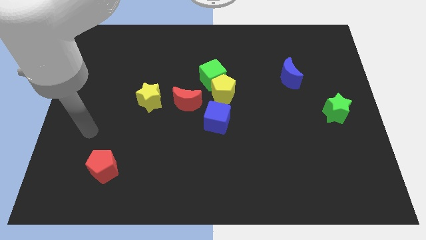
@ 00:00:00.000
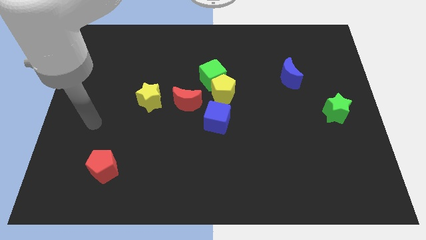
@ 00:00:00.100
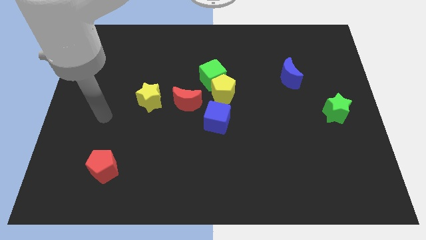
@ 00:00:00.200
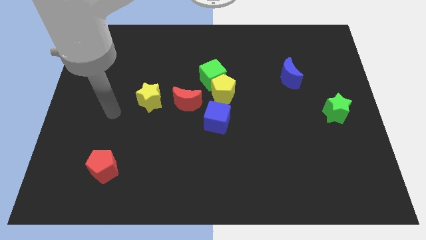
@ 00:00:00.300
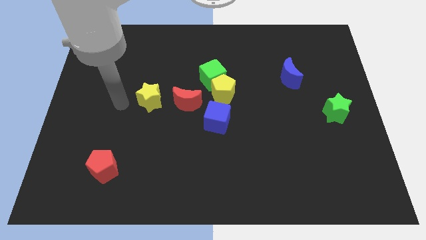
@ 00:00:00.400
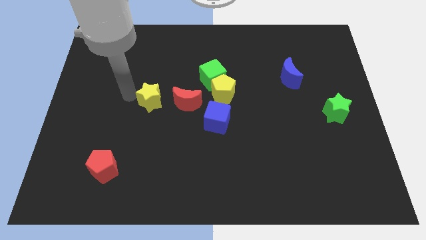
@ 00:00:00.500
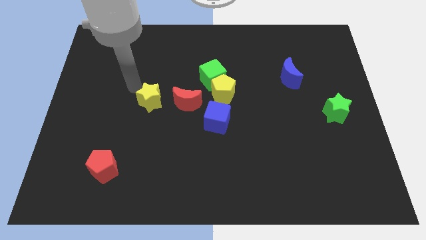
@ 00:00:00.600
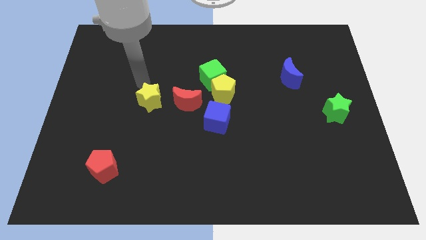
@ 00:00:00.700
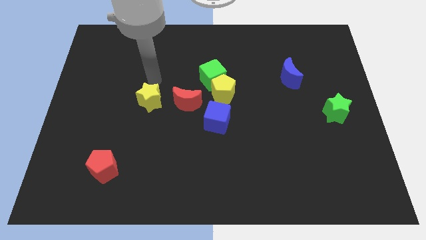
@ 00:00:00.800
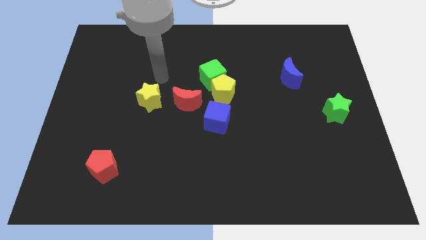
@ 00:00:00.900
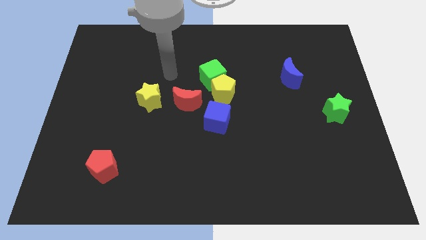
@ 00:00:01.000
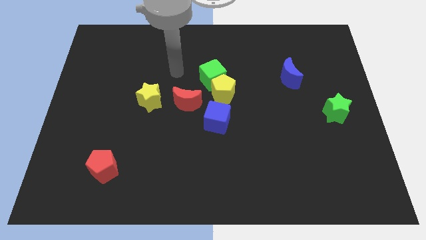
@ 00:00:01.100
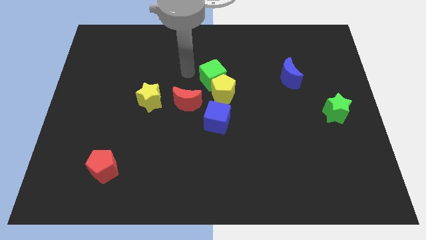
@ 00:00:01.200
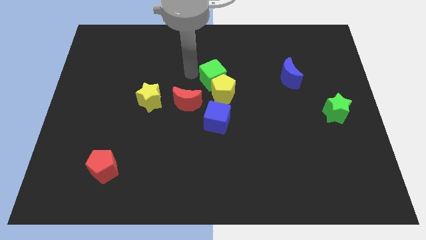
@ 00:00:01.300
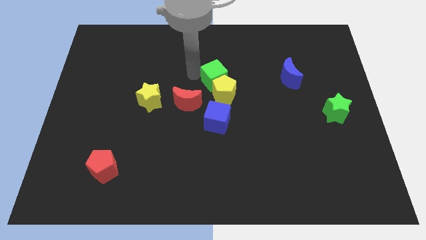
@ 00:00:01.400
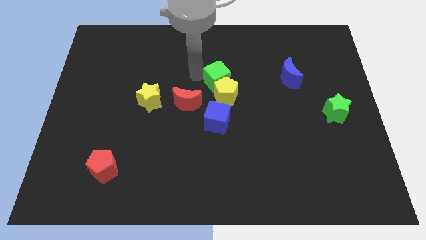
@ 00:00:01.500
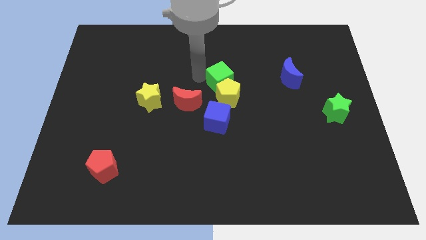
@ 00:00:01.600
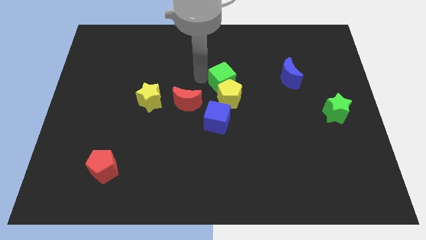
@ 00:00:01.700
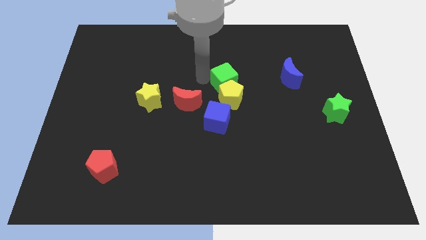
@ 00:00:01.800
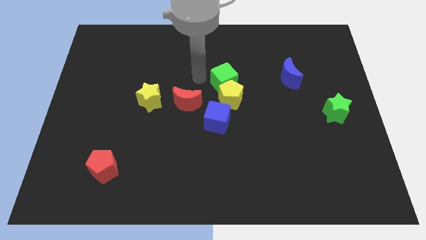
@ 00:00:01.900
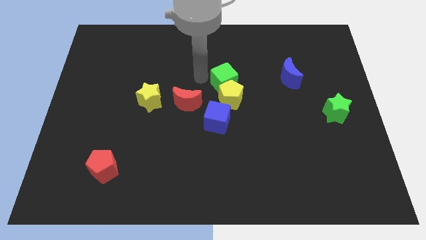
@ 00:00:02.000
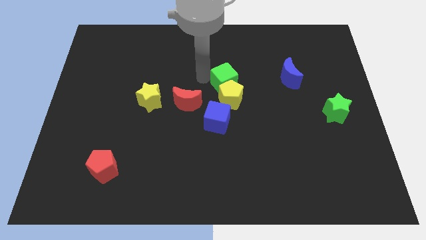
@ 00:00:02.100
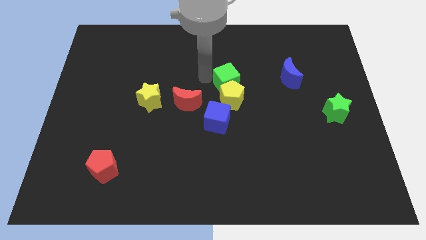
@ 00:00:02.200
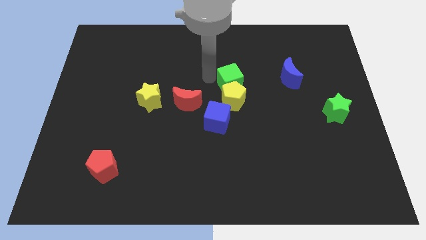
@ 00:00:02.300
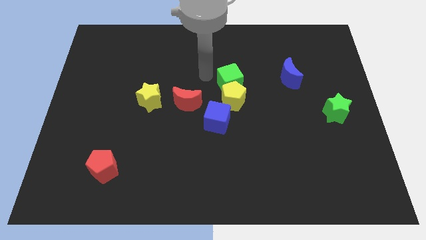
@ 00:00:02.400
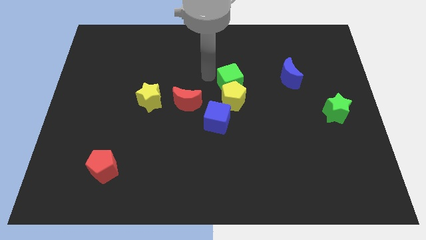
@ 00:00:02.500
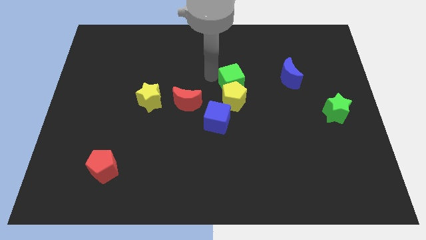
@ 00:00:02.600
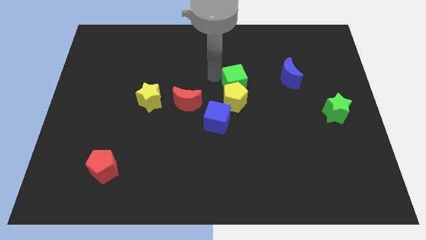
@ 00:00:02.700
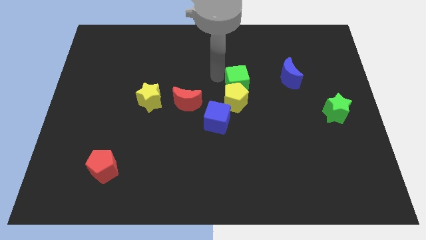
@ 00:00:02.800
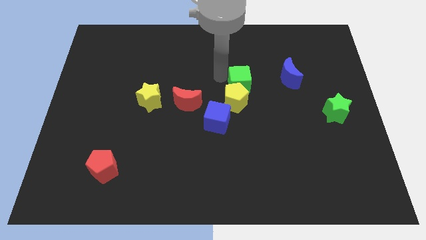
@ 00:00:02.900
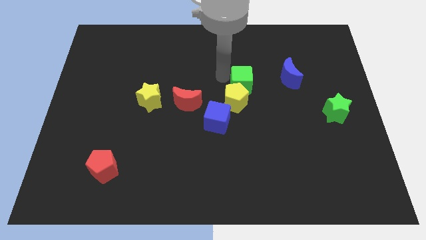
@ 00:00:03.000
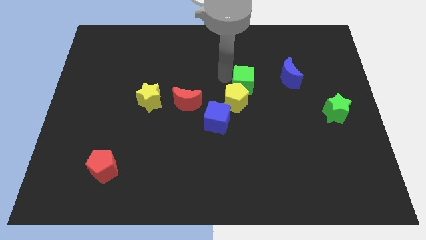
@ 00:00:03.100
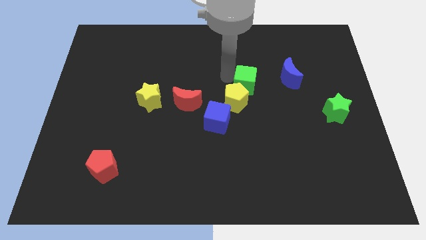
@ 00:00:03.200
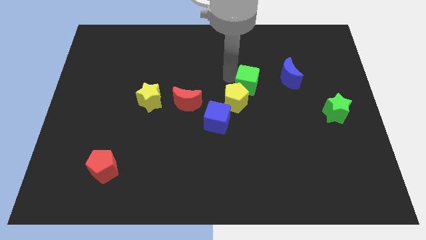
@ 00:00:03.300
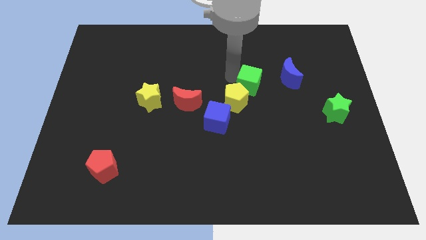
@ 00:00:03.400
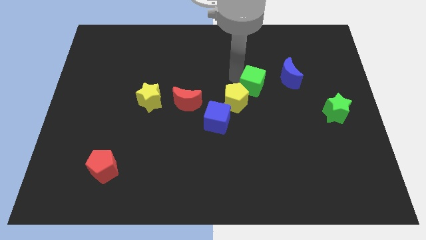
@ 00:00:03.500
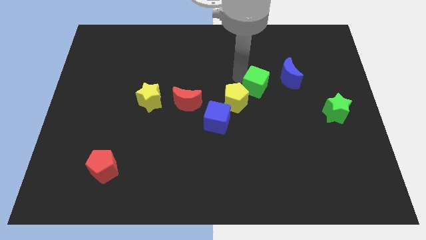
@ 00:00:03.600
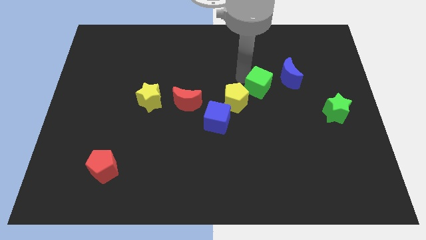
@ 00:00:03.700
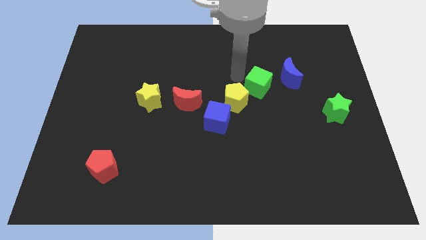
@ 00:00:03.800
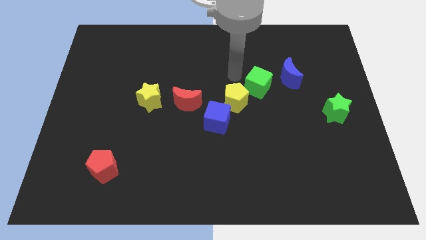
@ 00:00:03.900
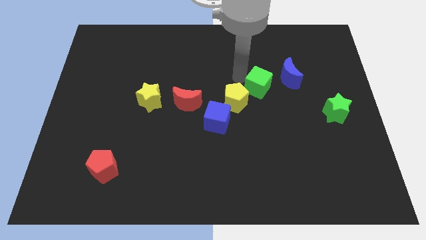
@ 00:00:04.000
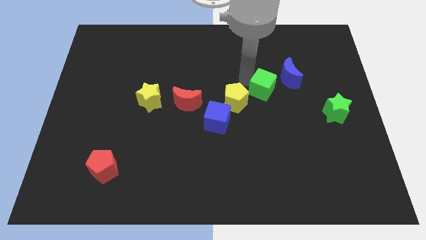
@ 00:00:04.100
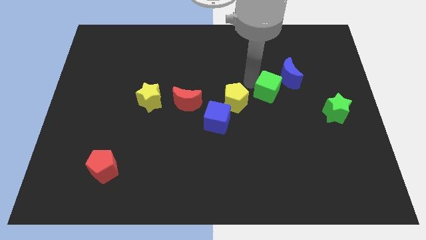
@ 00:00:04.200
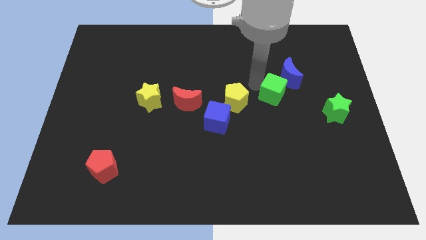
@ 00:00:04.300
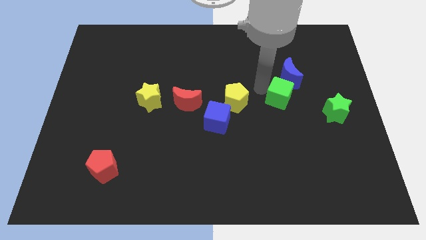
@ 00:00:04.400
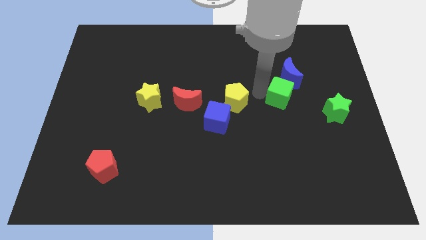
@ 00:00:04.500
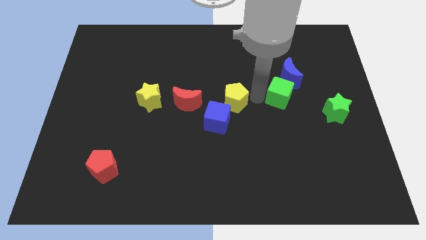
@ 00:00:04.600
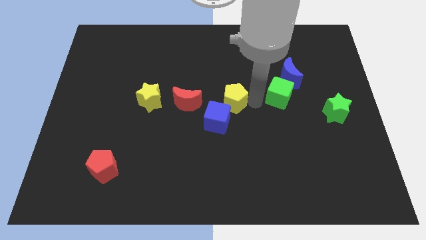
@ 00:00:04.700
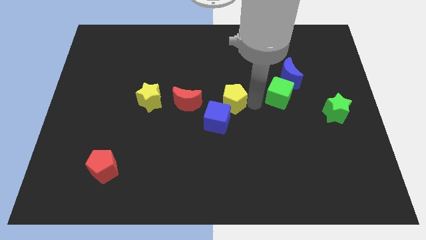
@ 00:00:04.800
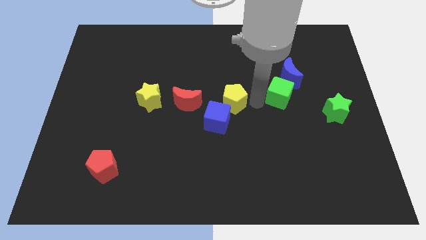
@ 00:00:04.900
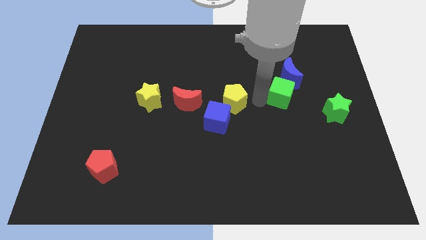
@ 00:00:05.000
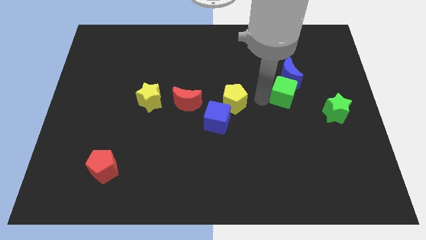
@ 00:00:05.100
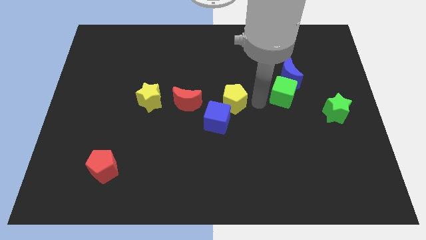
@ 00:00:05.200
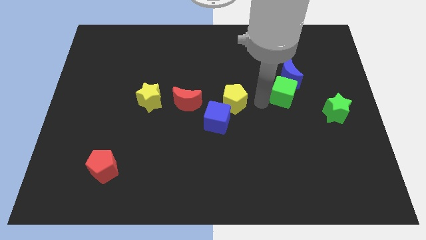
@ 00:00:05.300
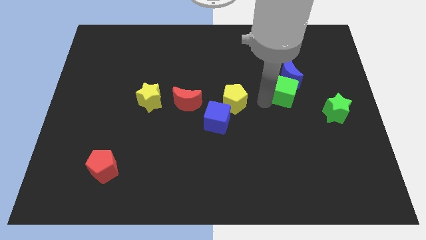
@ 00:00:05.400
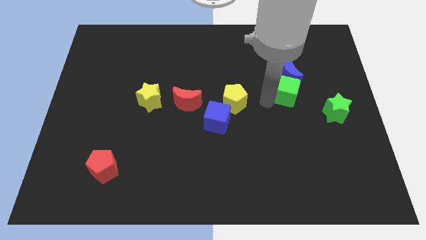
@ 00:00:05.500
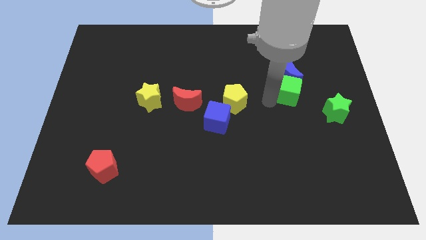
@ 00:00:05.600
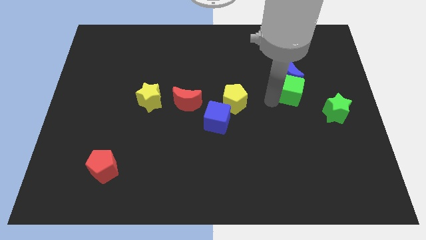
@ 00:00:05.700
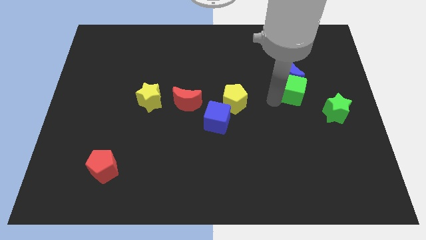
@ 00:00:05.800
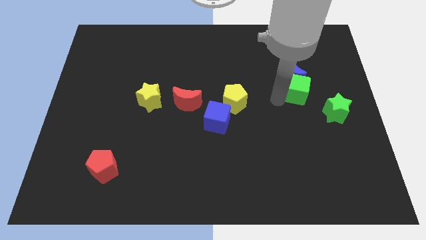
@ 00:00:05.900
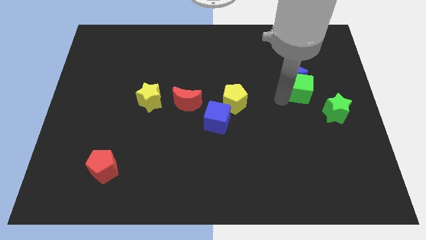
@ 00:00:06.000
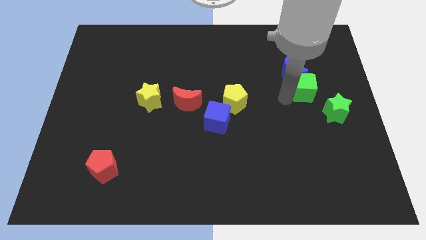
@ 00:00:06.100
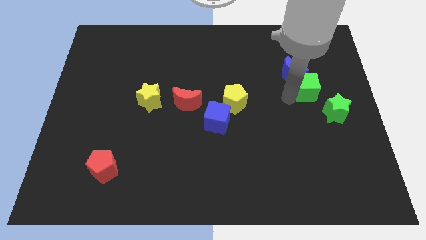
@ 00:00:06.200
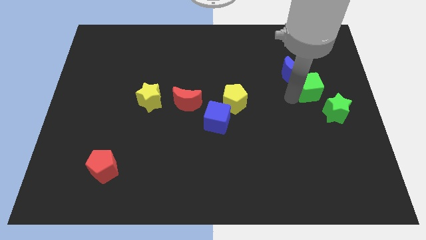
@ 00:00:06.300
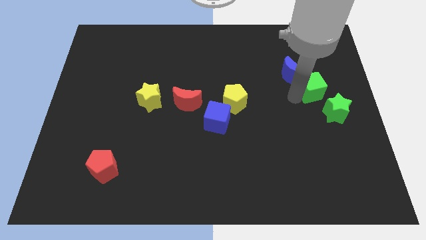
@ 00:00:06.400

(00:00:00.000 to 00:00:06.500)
slide the green cube above the green star

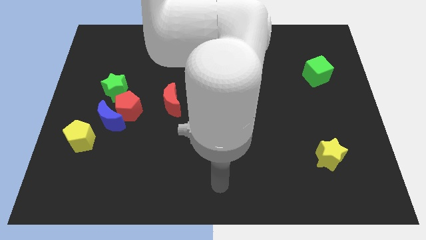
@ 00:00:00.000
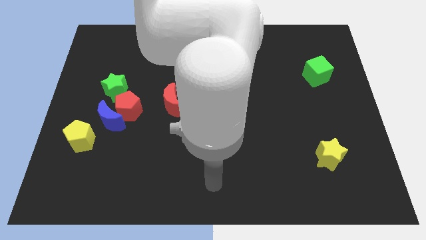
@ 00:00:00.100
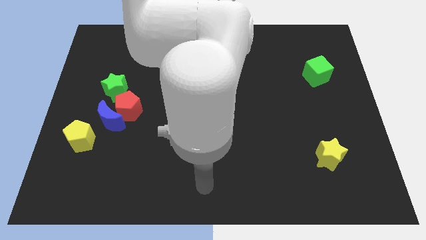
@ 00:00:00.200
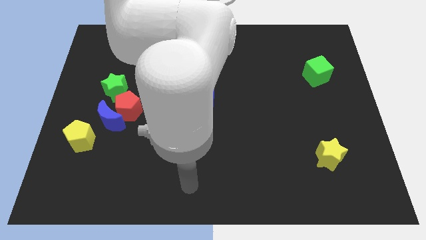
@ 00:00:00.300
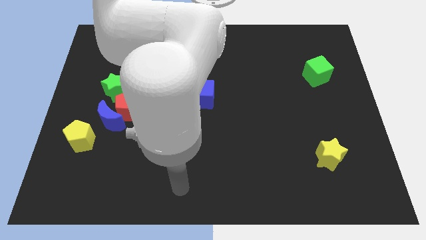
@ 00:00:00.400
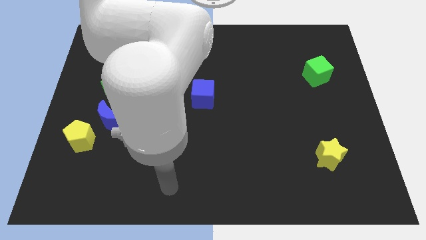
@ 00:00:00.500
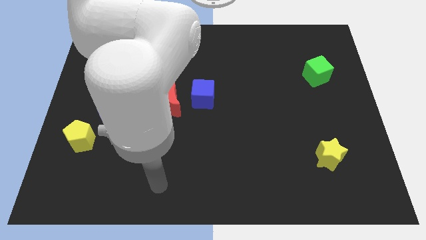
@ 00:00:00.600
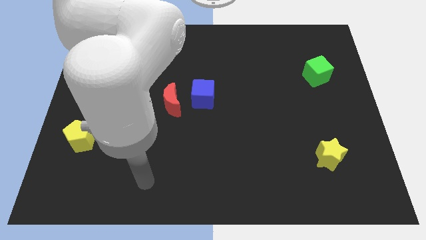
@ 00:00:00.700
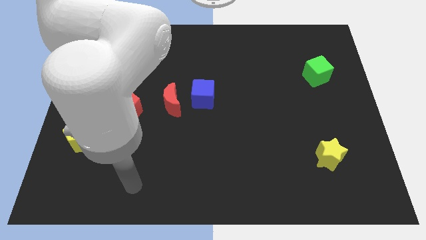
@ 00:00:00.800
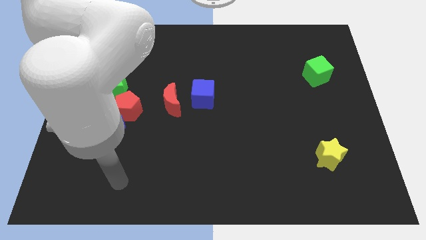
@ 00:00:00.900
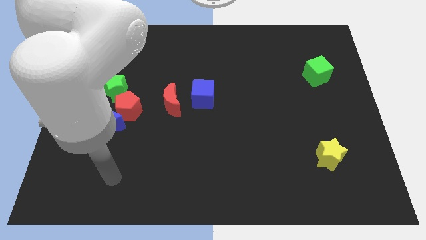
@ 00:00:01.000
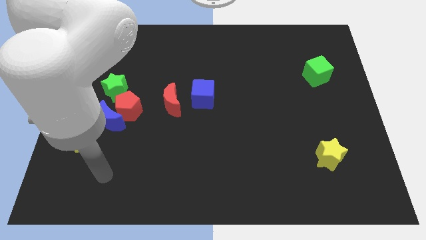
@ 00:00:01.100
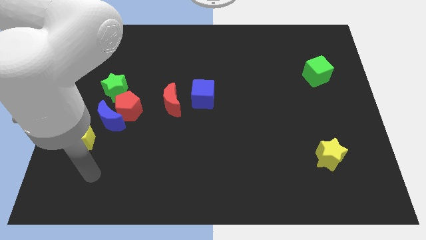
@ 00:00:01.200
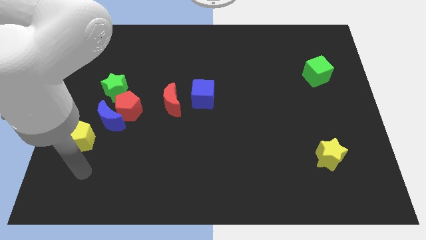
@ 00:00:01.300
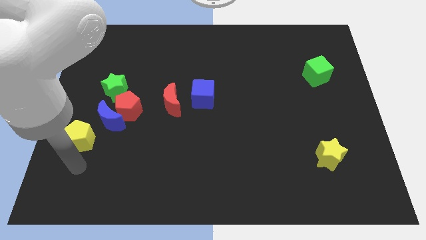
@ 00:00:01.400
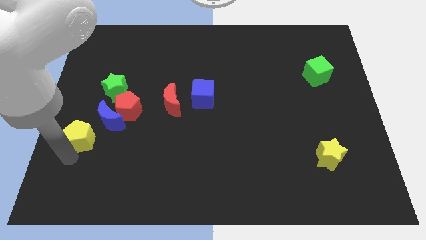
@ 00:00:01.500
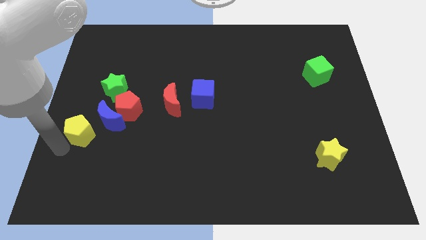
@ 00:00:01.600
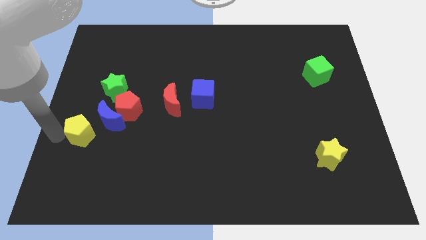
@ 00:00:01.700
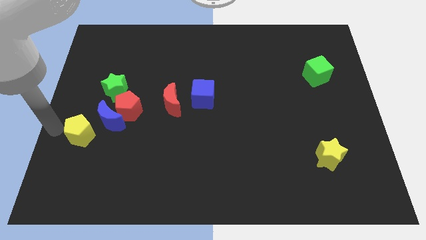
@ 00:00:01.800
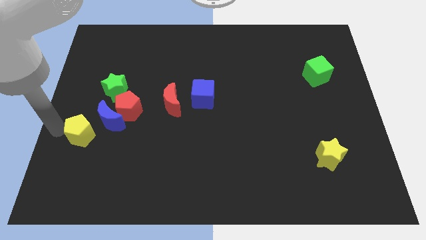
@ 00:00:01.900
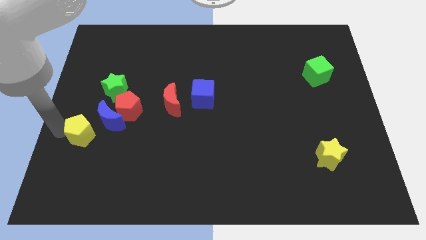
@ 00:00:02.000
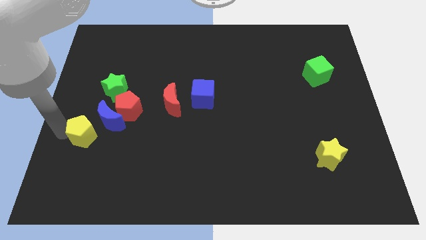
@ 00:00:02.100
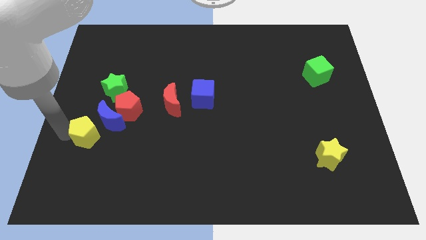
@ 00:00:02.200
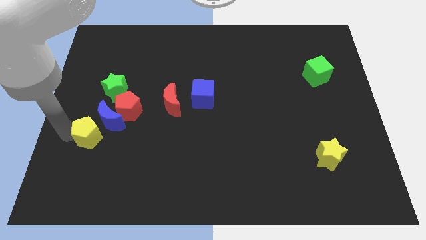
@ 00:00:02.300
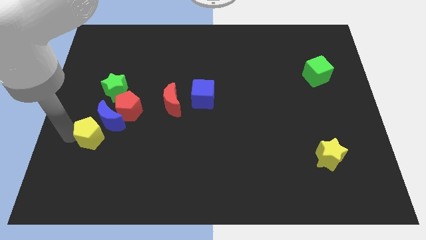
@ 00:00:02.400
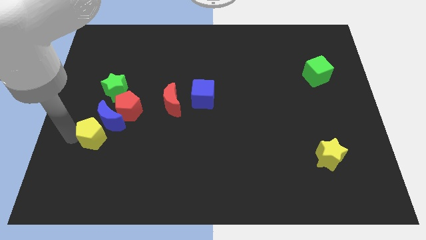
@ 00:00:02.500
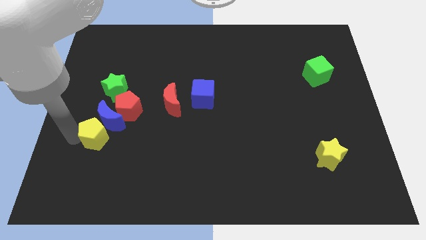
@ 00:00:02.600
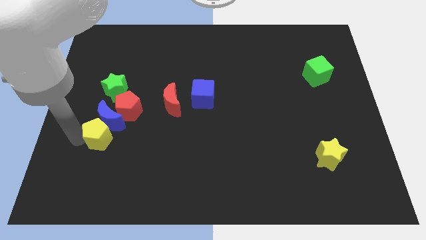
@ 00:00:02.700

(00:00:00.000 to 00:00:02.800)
slide the yellow pentagon diagonally down and to the right of the blue moon
